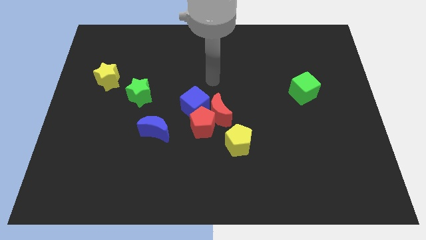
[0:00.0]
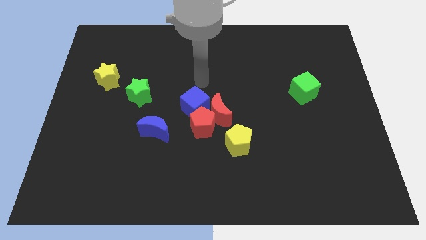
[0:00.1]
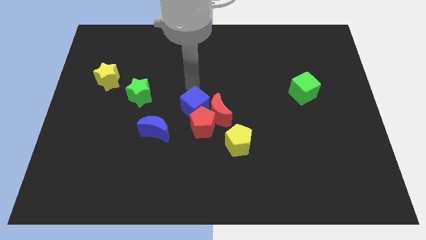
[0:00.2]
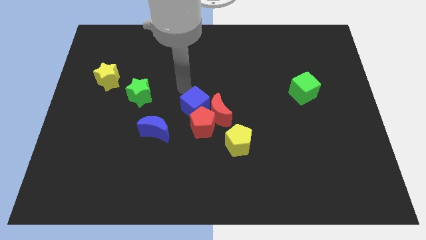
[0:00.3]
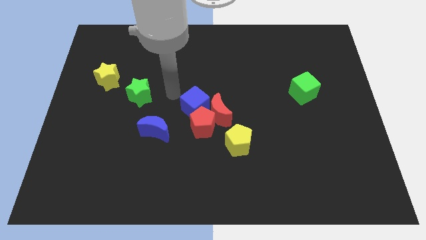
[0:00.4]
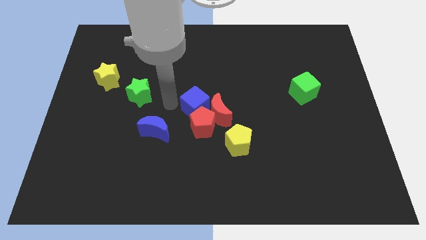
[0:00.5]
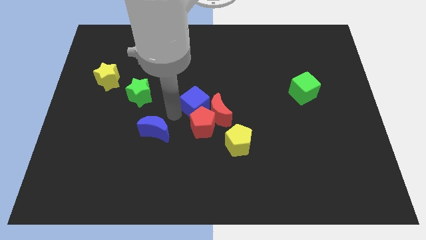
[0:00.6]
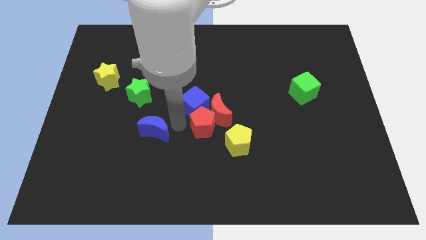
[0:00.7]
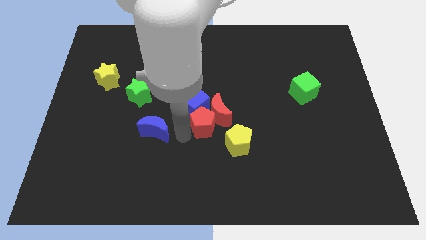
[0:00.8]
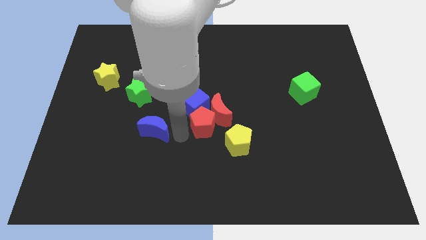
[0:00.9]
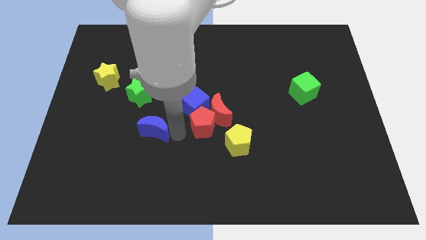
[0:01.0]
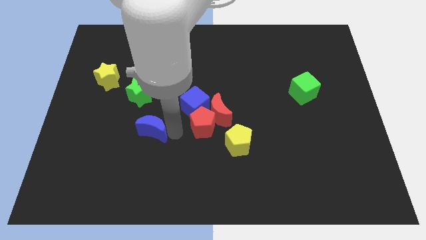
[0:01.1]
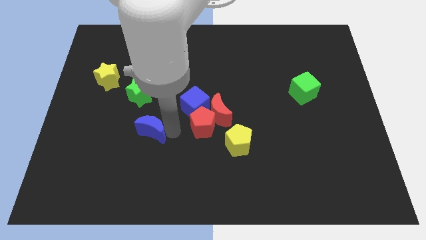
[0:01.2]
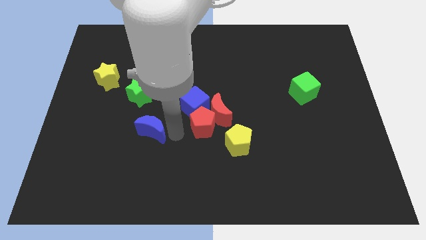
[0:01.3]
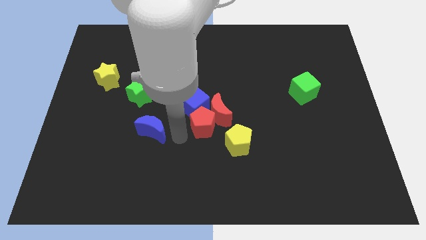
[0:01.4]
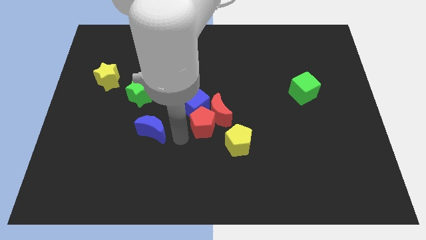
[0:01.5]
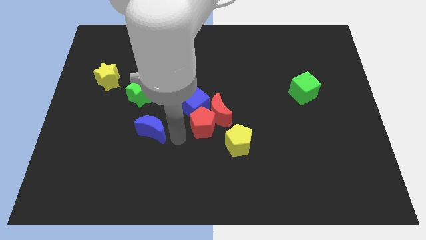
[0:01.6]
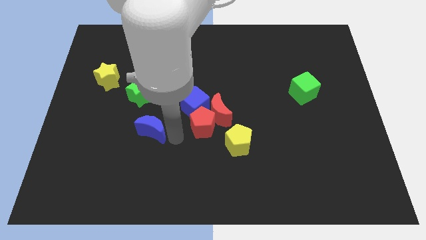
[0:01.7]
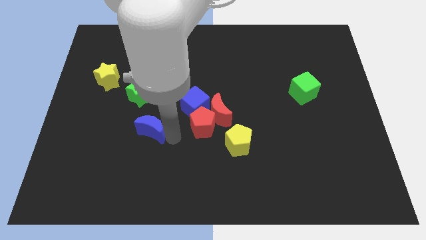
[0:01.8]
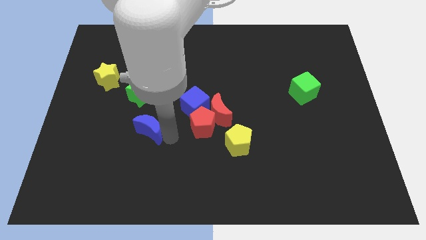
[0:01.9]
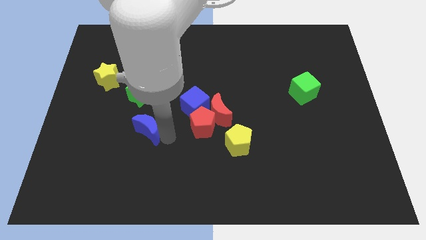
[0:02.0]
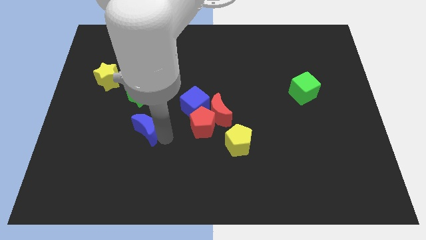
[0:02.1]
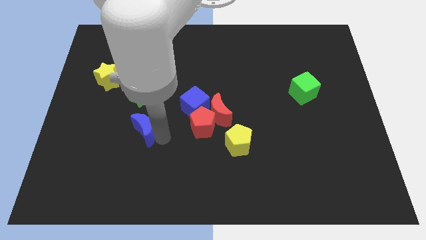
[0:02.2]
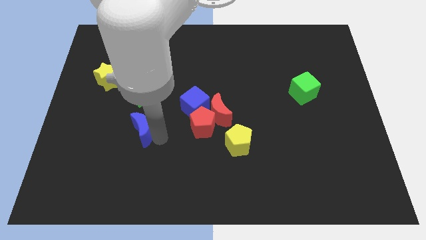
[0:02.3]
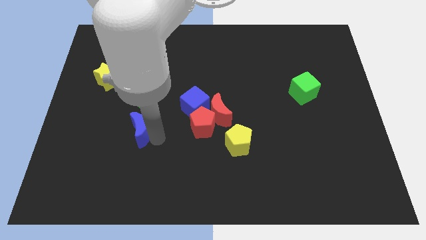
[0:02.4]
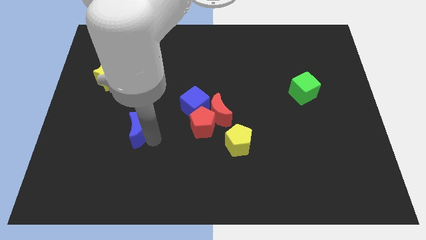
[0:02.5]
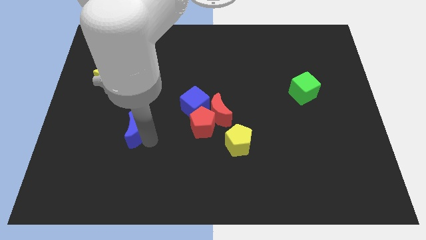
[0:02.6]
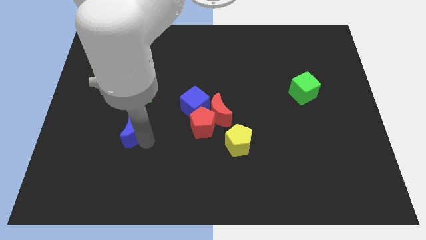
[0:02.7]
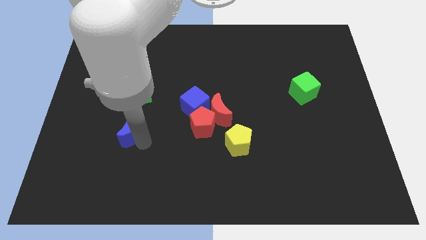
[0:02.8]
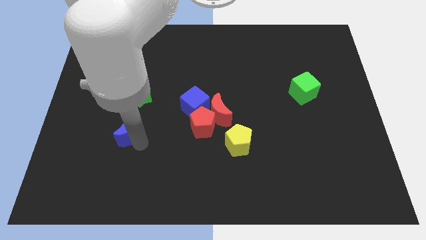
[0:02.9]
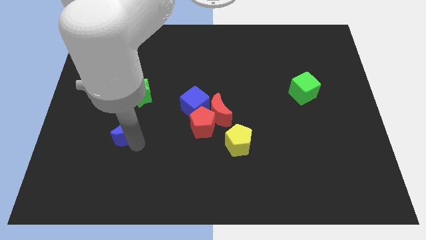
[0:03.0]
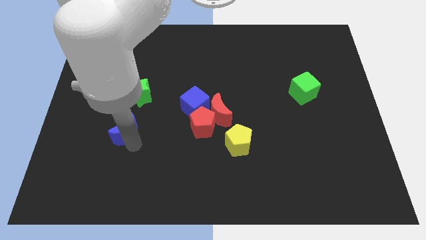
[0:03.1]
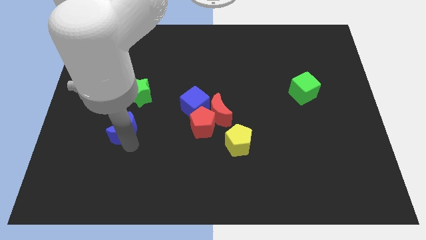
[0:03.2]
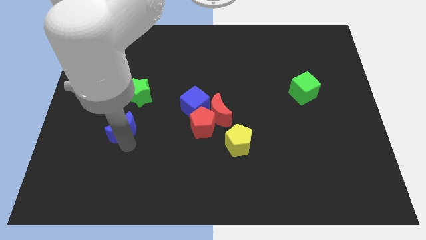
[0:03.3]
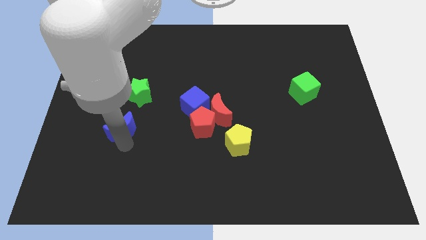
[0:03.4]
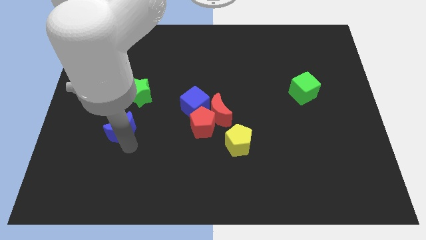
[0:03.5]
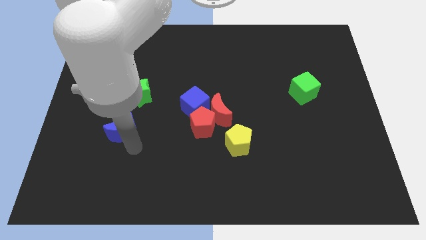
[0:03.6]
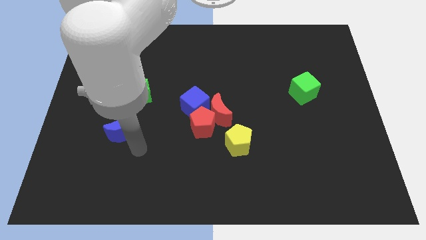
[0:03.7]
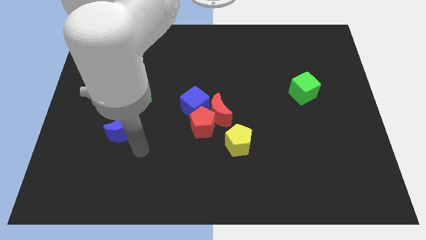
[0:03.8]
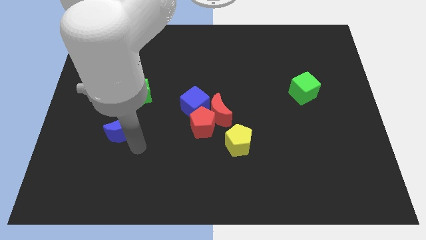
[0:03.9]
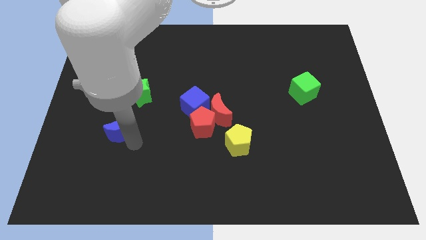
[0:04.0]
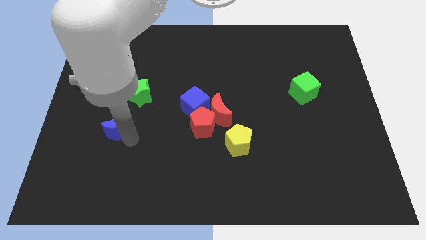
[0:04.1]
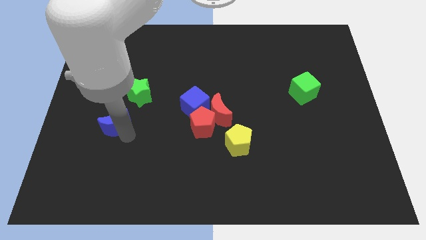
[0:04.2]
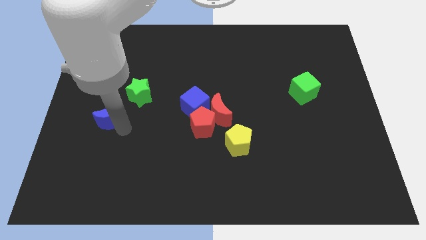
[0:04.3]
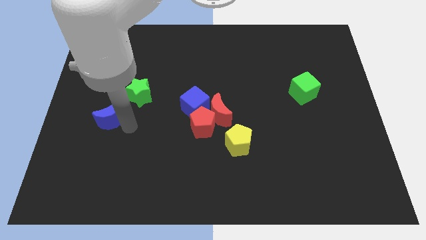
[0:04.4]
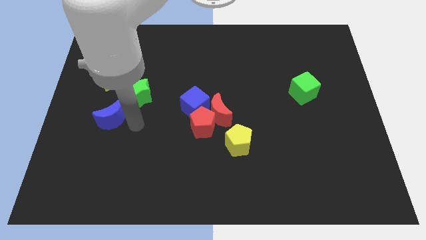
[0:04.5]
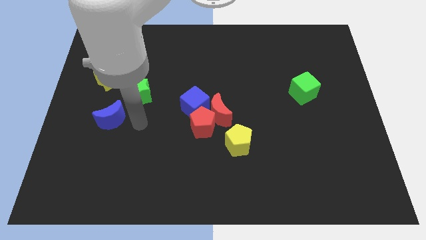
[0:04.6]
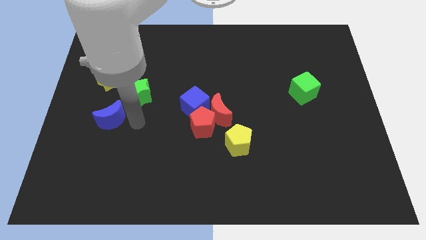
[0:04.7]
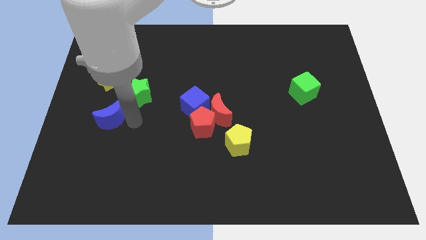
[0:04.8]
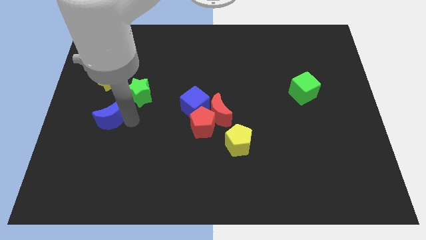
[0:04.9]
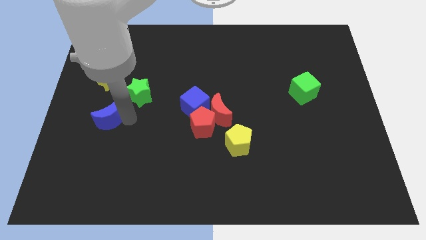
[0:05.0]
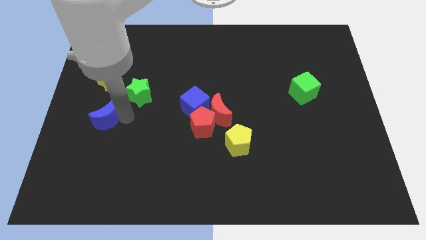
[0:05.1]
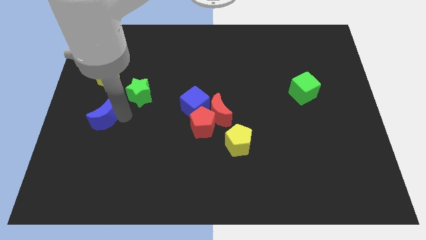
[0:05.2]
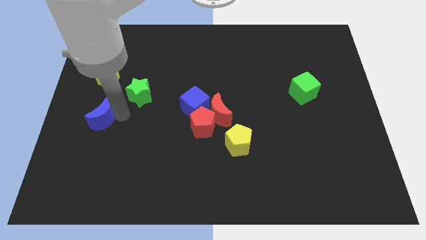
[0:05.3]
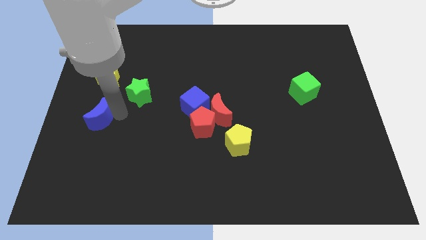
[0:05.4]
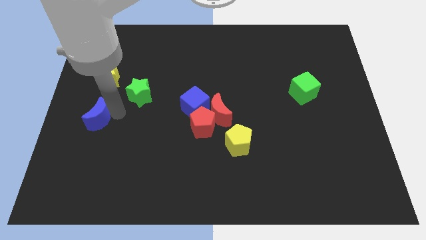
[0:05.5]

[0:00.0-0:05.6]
put the blue moon to the left side of the board
